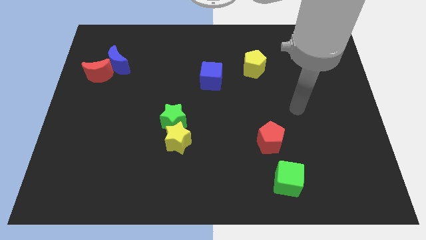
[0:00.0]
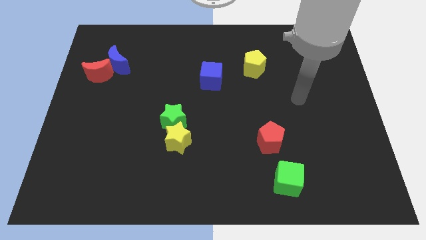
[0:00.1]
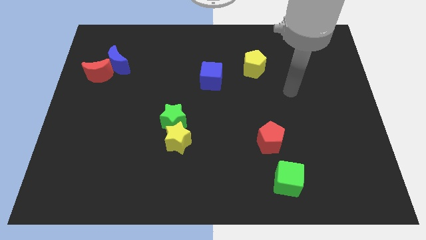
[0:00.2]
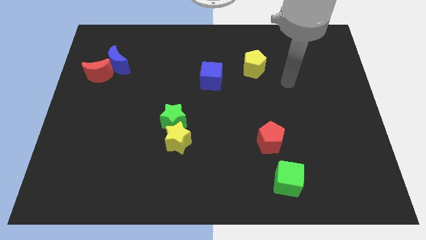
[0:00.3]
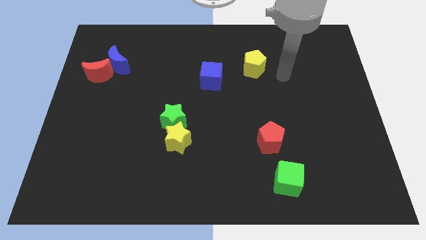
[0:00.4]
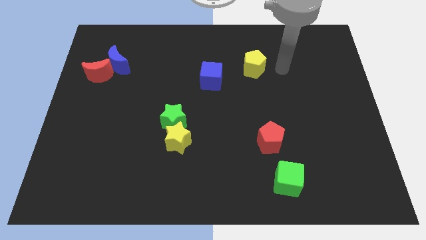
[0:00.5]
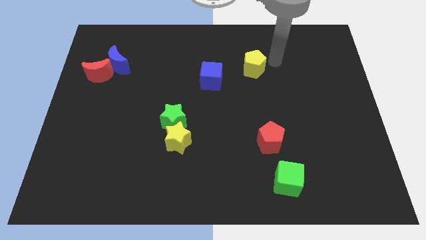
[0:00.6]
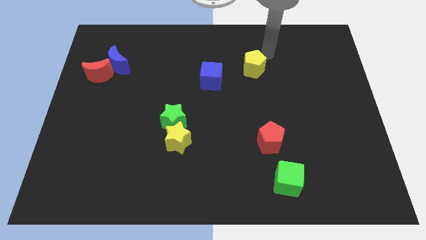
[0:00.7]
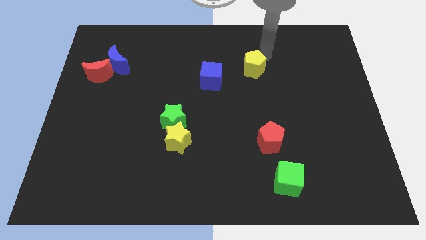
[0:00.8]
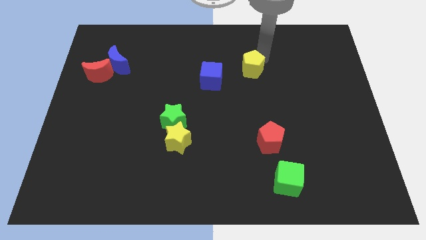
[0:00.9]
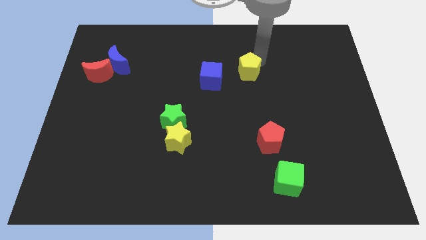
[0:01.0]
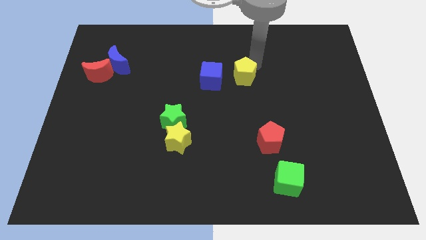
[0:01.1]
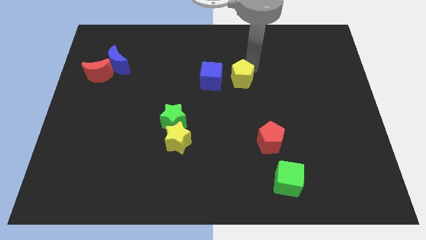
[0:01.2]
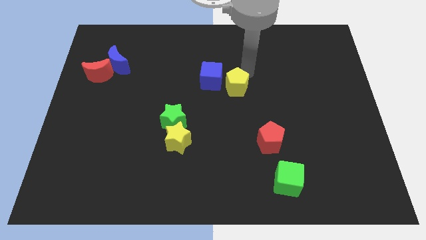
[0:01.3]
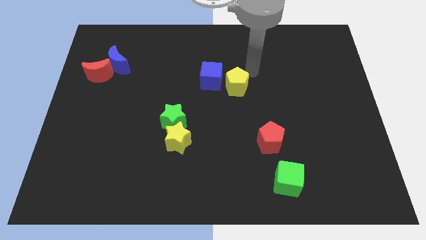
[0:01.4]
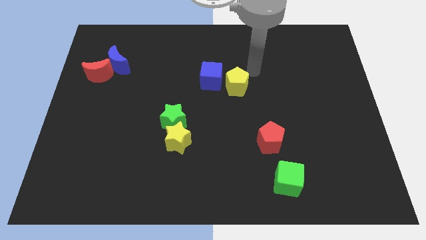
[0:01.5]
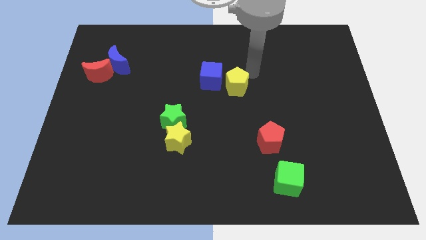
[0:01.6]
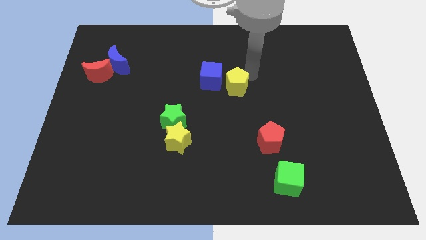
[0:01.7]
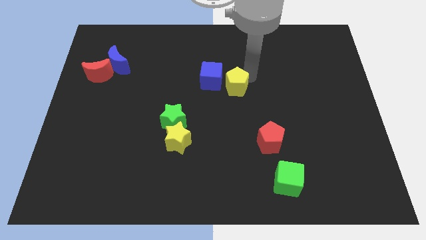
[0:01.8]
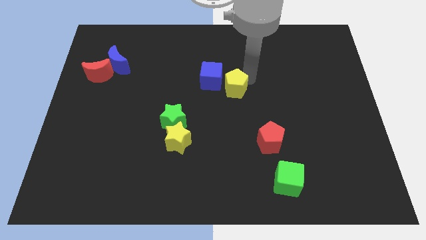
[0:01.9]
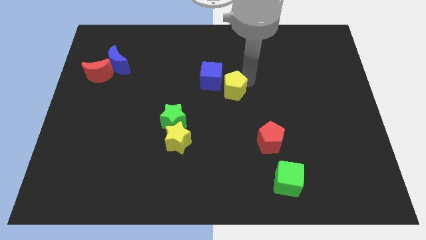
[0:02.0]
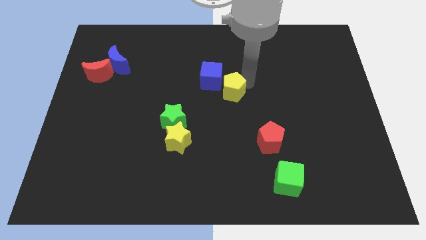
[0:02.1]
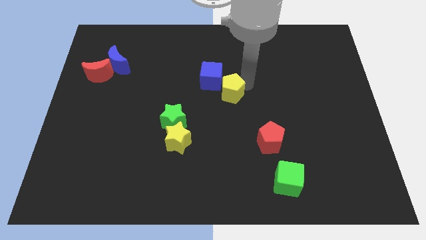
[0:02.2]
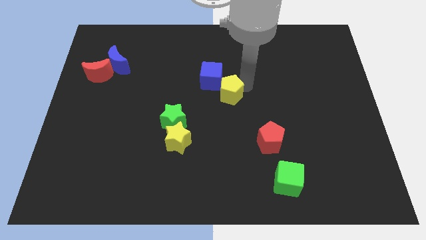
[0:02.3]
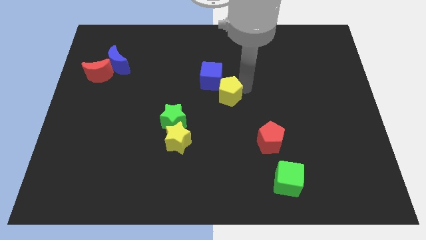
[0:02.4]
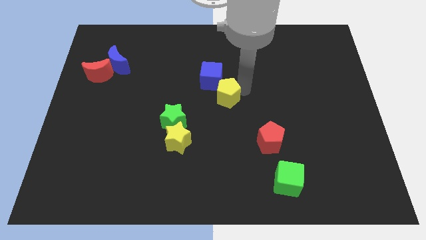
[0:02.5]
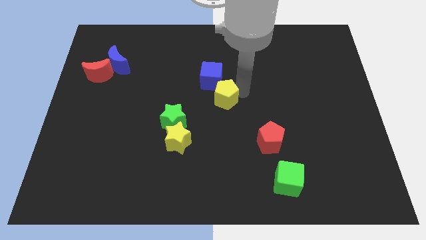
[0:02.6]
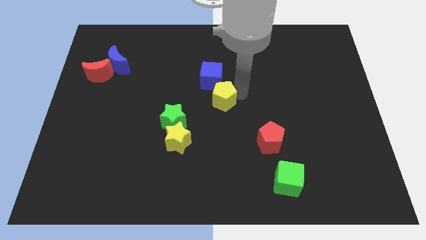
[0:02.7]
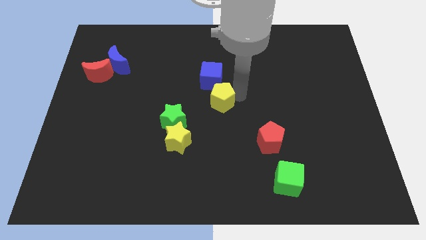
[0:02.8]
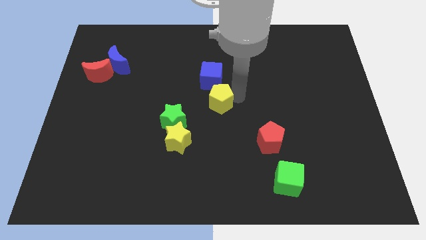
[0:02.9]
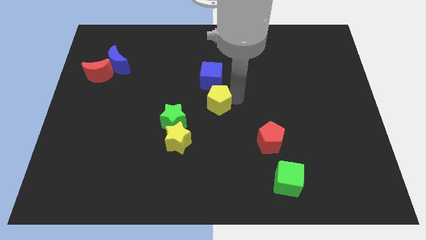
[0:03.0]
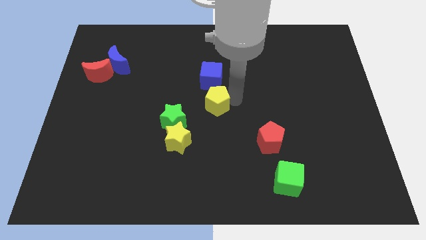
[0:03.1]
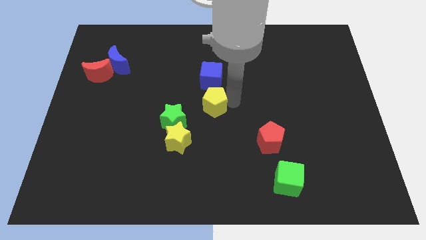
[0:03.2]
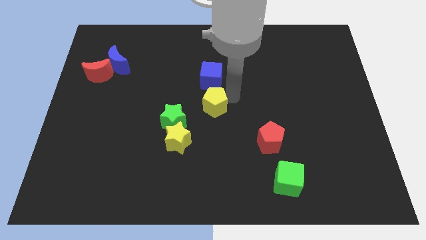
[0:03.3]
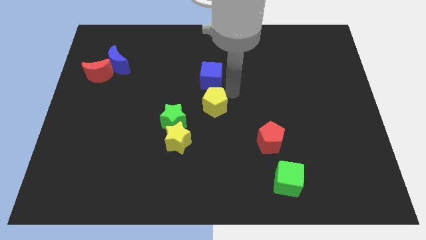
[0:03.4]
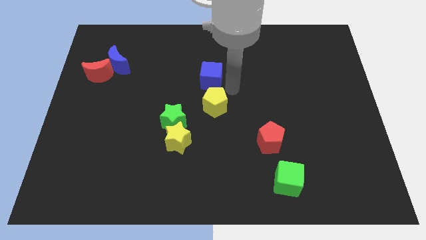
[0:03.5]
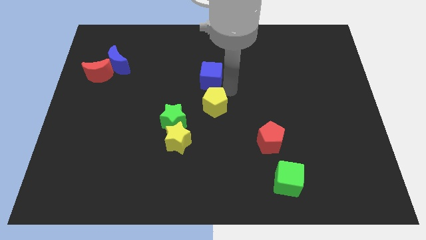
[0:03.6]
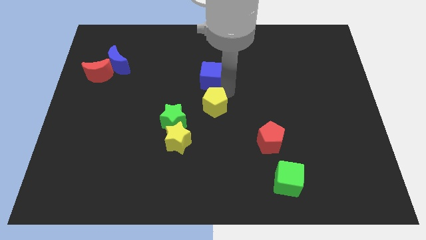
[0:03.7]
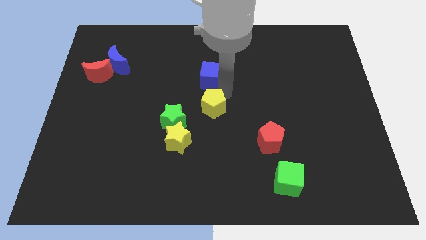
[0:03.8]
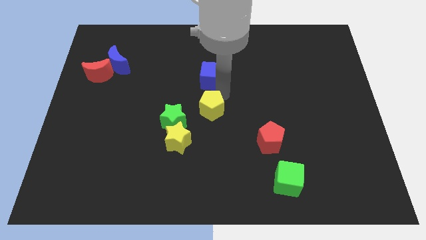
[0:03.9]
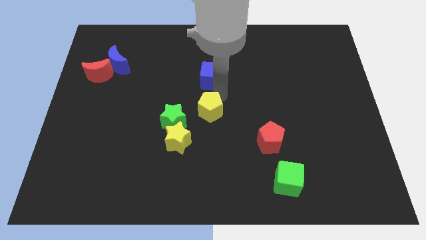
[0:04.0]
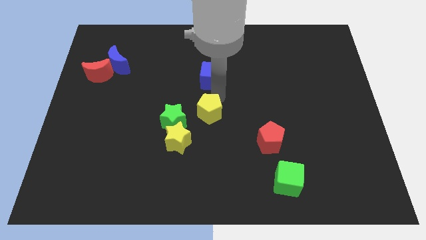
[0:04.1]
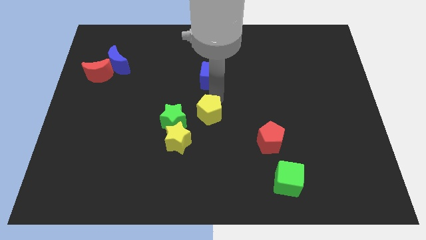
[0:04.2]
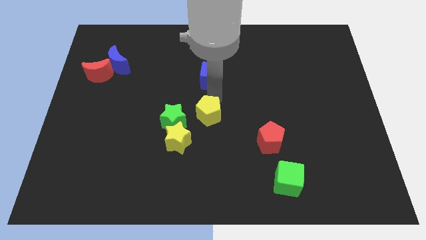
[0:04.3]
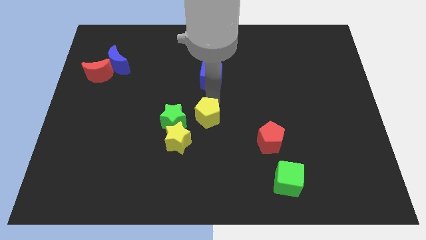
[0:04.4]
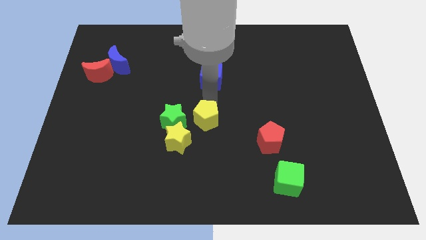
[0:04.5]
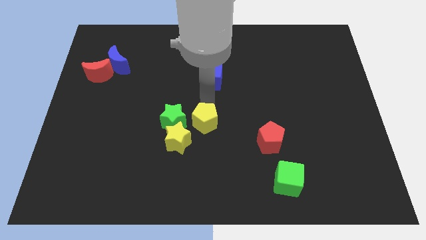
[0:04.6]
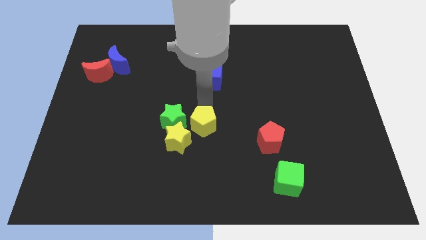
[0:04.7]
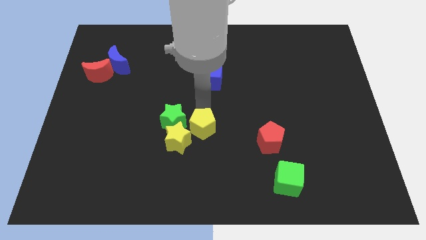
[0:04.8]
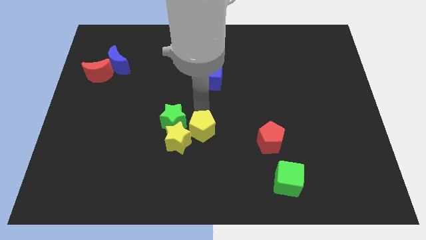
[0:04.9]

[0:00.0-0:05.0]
put the yellow pentagon next to the yellow star

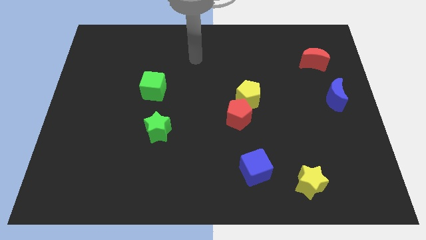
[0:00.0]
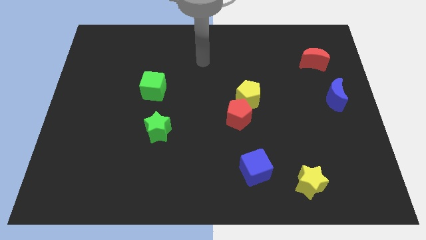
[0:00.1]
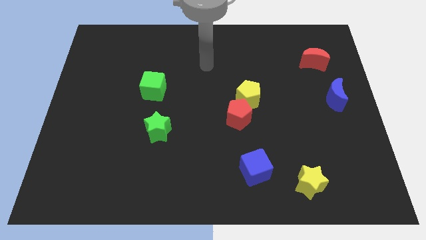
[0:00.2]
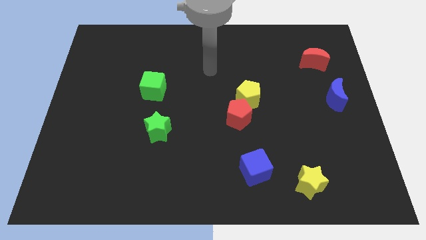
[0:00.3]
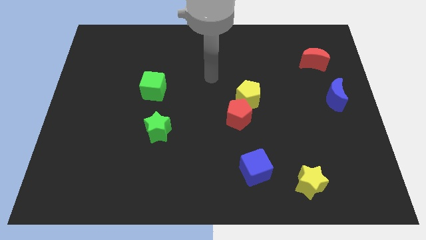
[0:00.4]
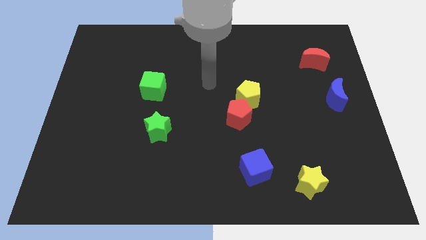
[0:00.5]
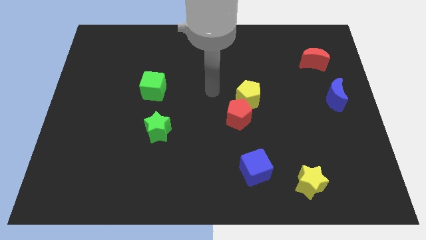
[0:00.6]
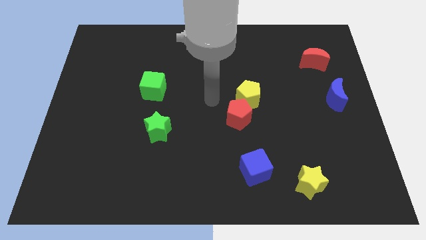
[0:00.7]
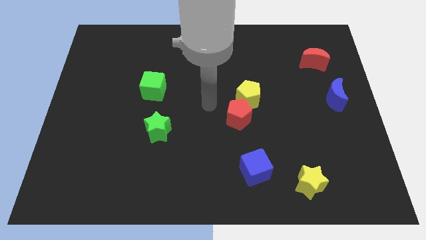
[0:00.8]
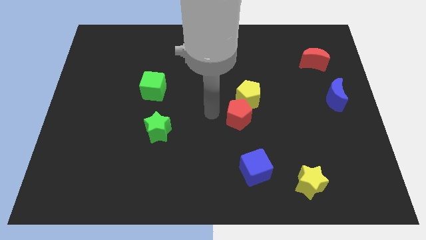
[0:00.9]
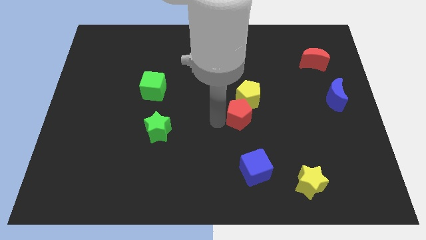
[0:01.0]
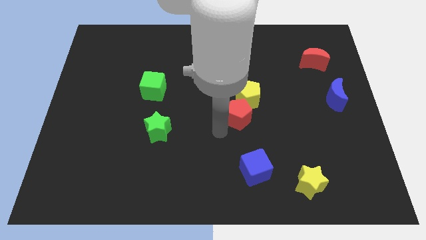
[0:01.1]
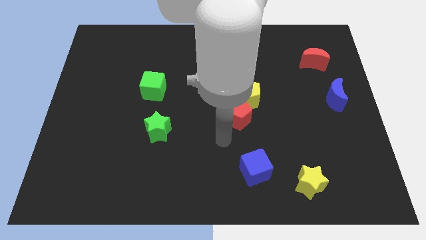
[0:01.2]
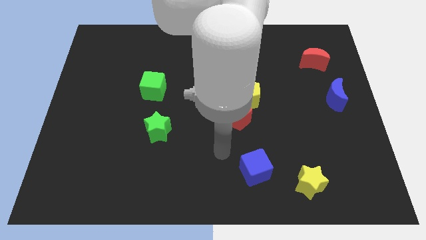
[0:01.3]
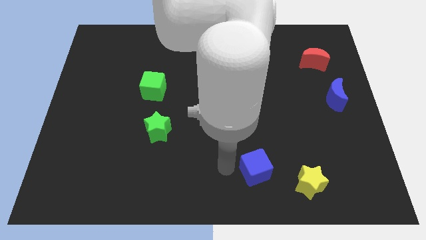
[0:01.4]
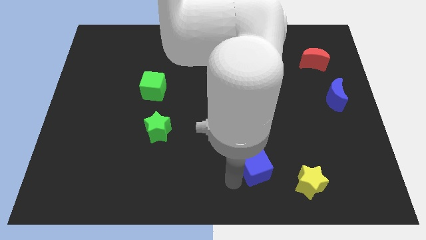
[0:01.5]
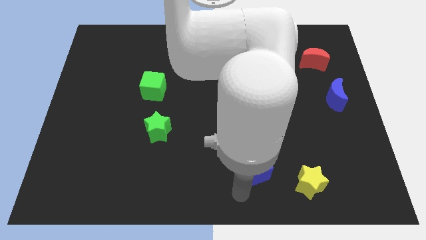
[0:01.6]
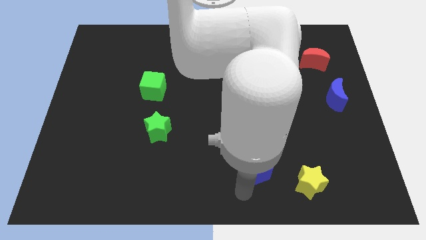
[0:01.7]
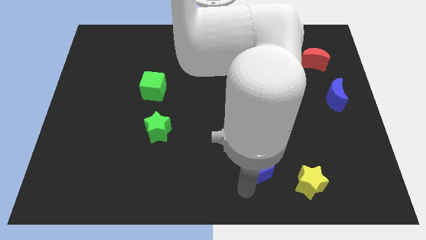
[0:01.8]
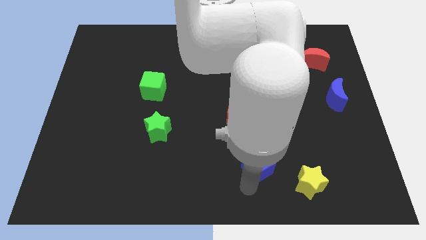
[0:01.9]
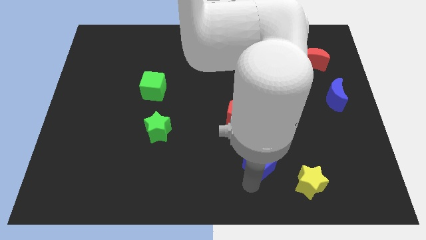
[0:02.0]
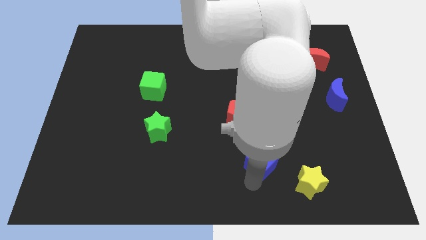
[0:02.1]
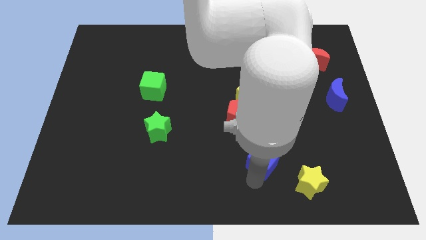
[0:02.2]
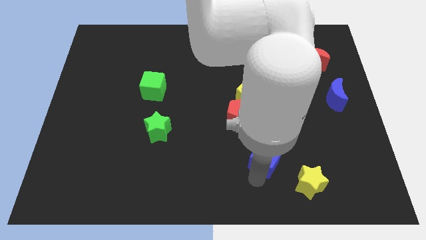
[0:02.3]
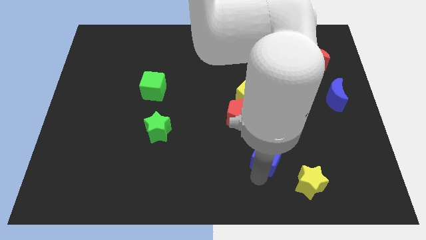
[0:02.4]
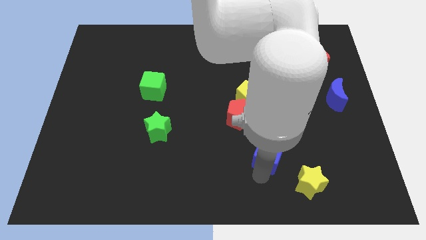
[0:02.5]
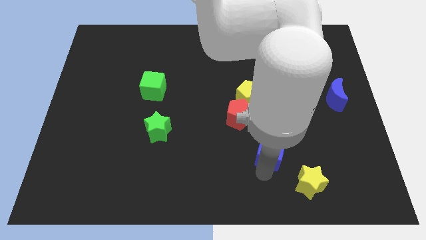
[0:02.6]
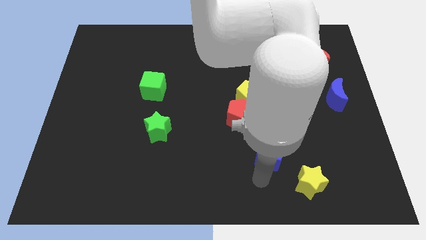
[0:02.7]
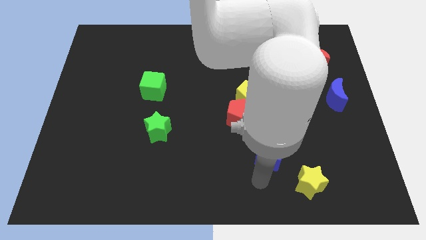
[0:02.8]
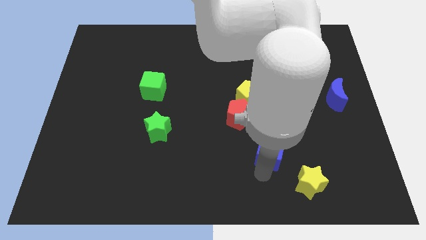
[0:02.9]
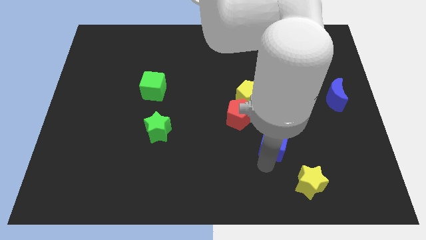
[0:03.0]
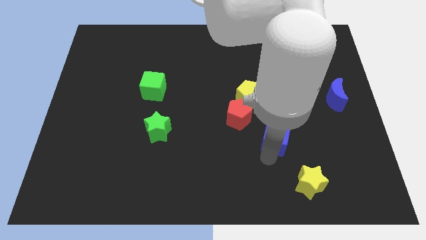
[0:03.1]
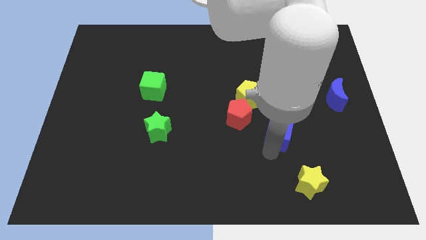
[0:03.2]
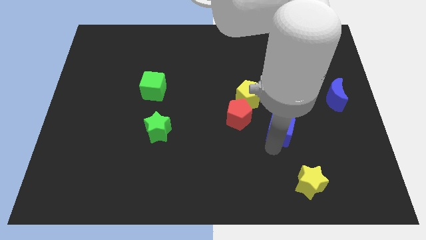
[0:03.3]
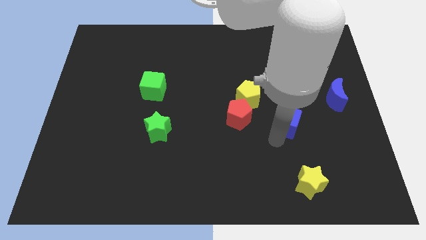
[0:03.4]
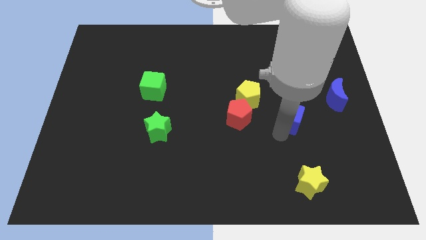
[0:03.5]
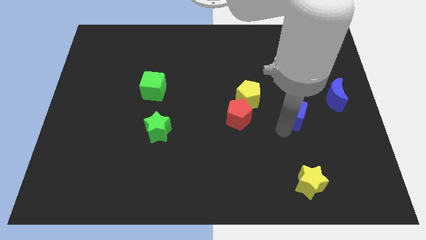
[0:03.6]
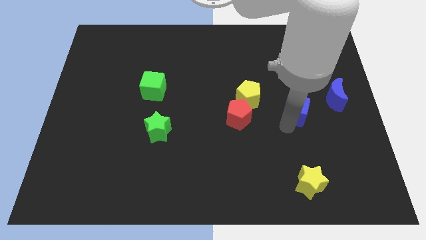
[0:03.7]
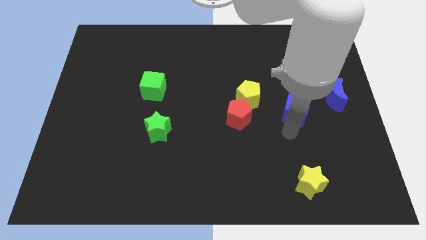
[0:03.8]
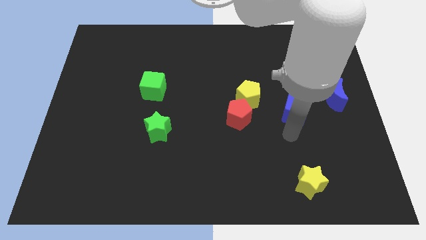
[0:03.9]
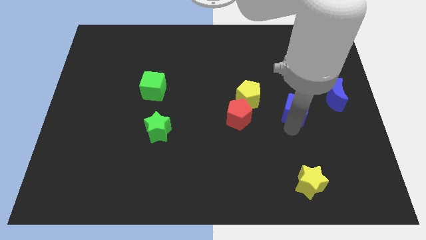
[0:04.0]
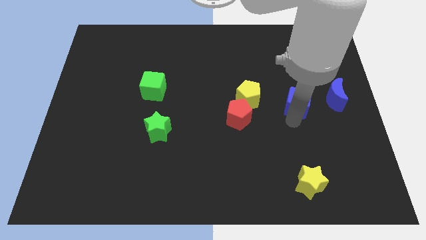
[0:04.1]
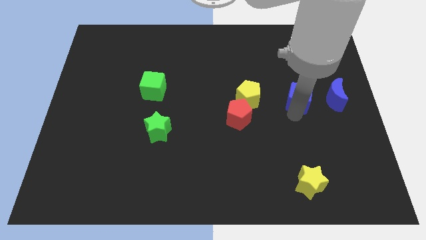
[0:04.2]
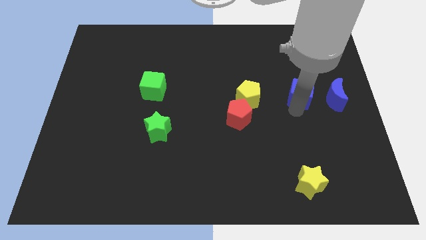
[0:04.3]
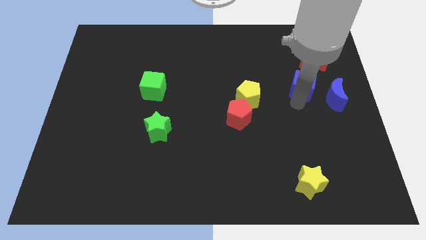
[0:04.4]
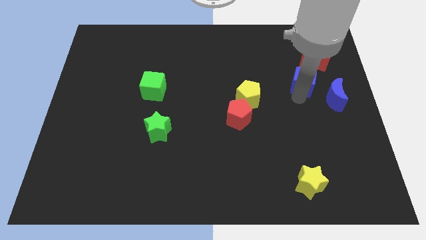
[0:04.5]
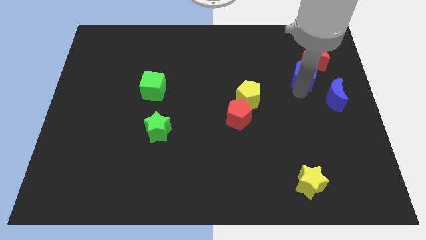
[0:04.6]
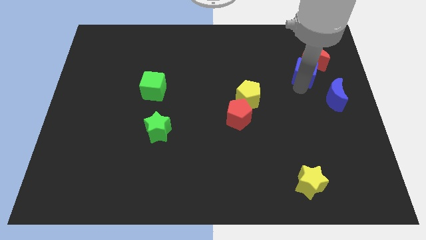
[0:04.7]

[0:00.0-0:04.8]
put the blue cube next to the red moon
